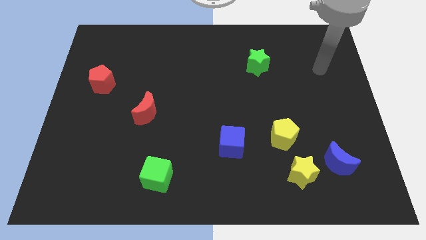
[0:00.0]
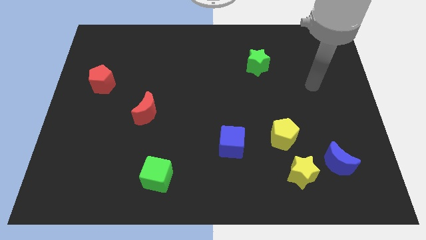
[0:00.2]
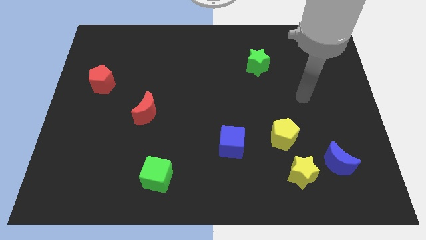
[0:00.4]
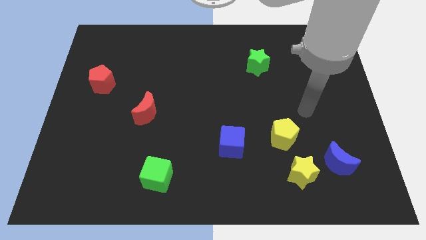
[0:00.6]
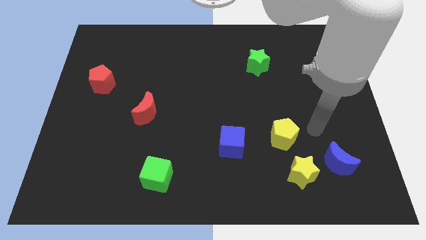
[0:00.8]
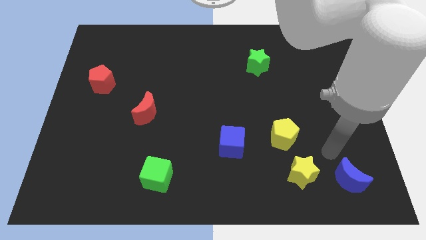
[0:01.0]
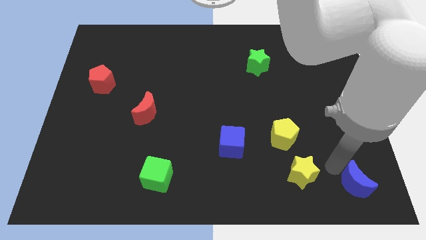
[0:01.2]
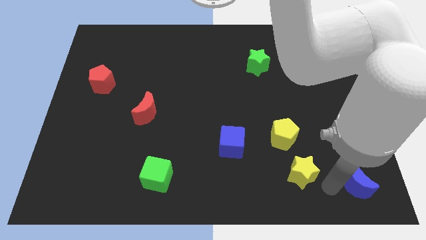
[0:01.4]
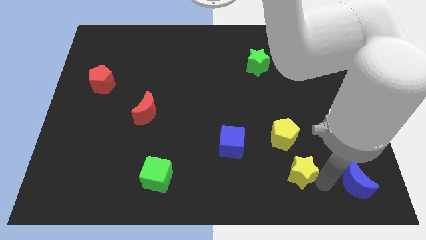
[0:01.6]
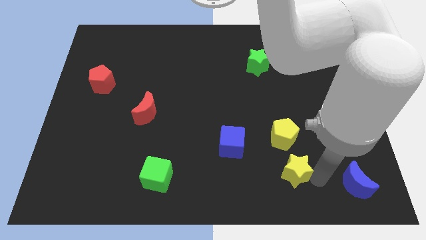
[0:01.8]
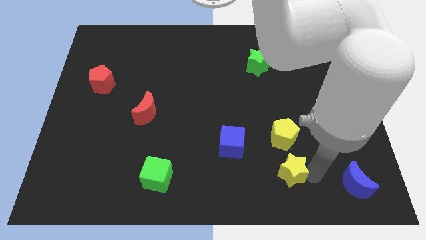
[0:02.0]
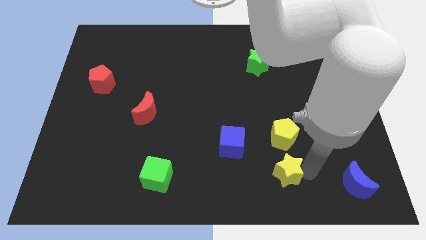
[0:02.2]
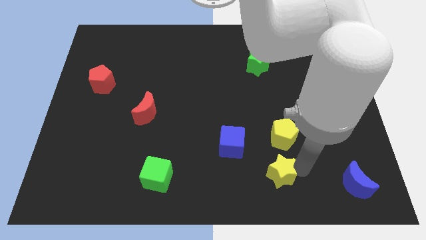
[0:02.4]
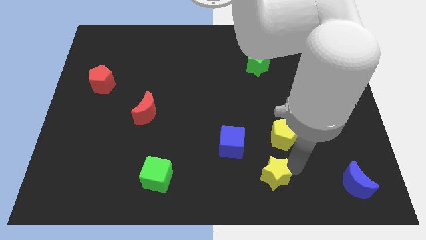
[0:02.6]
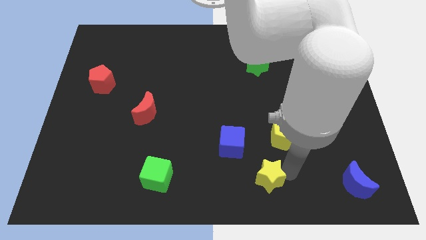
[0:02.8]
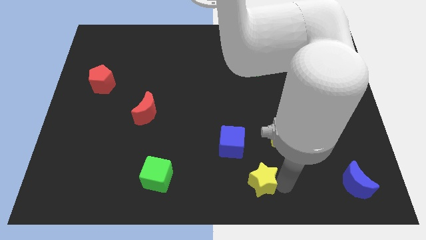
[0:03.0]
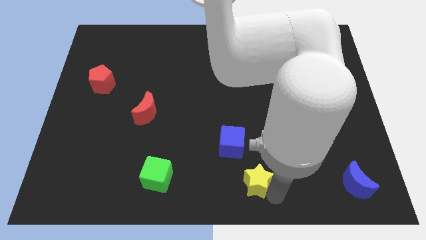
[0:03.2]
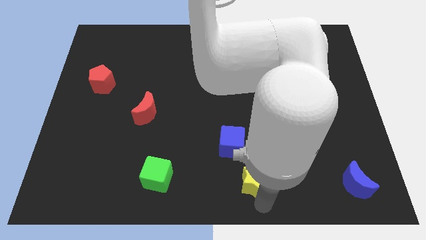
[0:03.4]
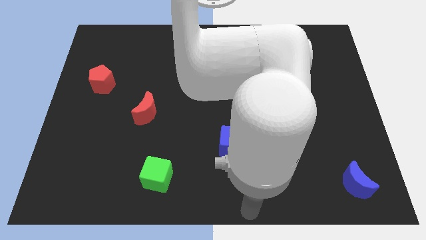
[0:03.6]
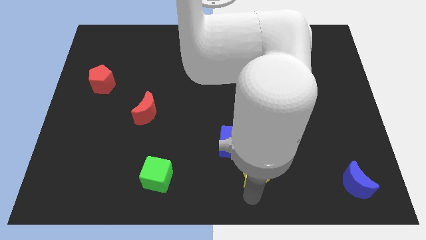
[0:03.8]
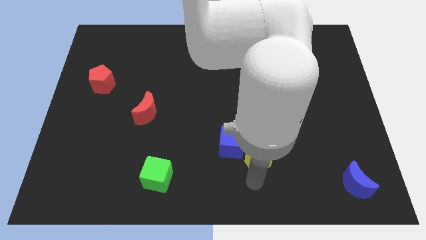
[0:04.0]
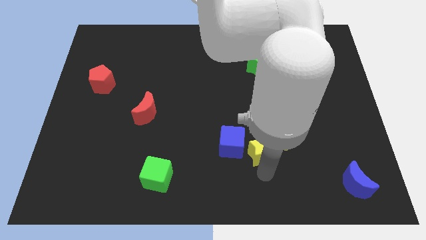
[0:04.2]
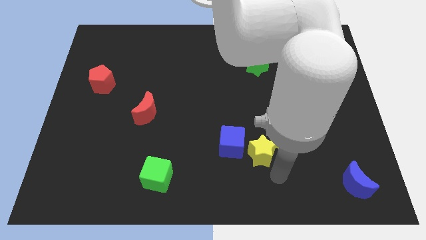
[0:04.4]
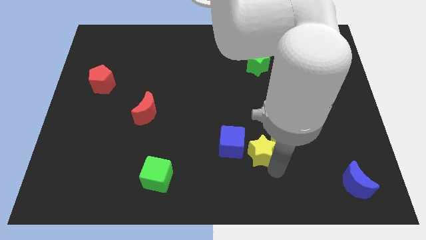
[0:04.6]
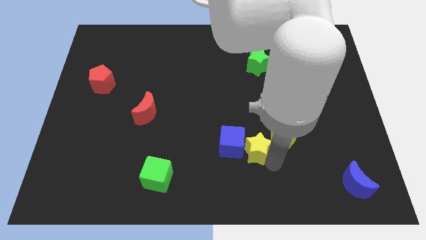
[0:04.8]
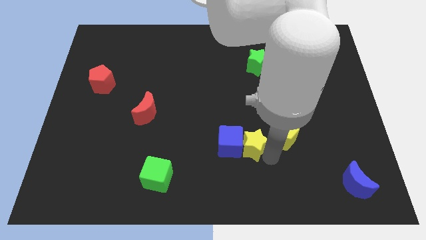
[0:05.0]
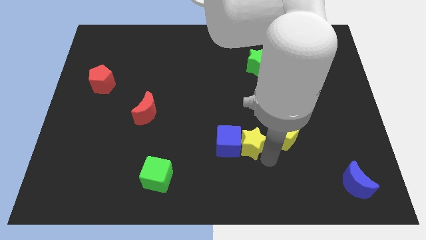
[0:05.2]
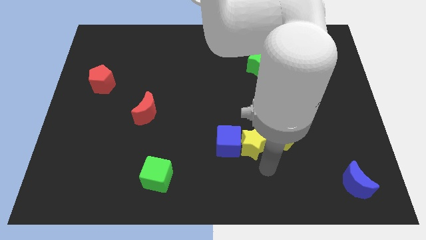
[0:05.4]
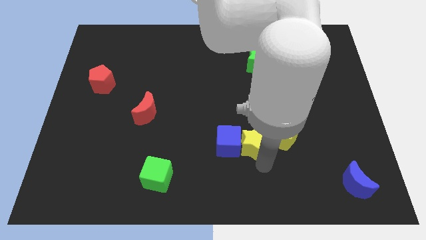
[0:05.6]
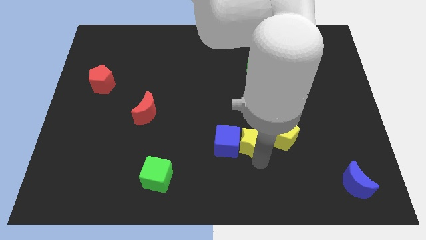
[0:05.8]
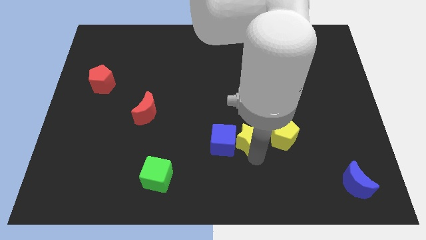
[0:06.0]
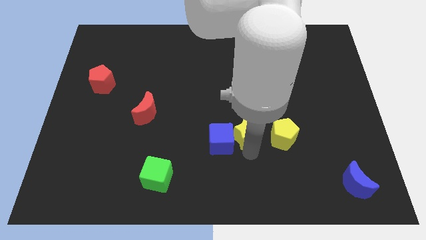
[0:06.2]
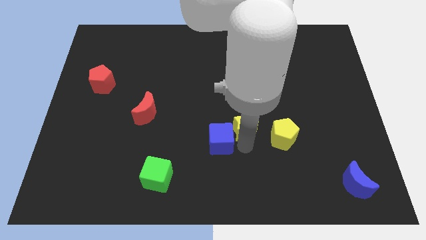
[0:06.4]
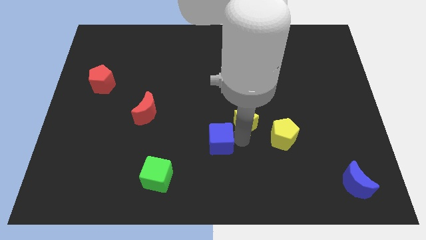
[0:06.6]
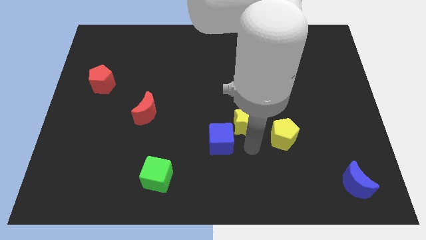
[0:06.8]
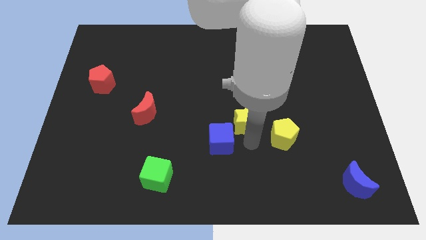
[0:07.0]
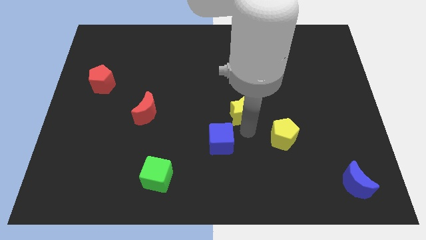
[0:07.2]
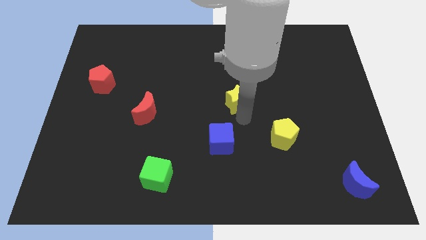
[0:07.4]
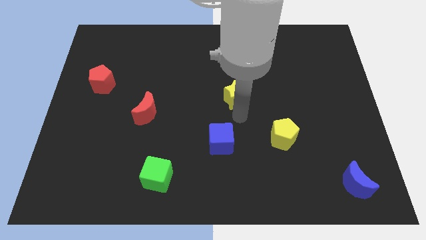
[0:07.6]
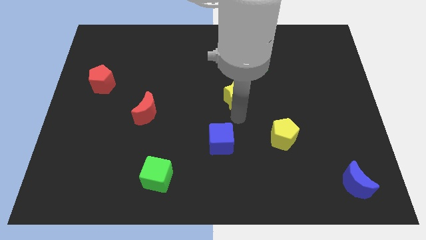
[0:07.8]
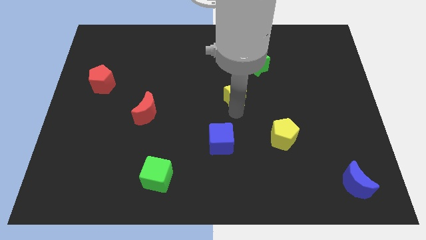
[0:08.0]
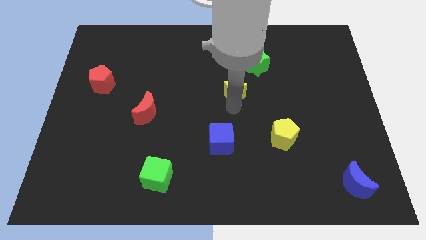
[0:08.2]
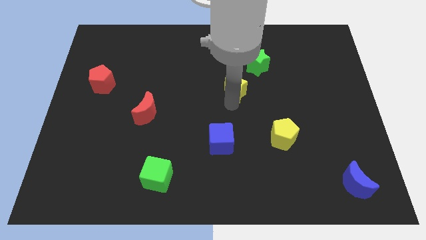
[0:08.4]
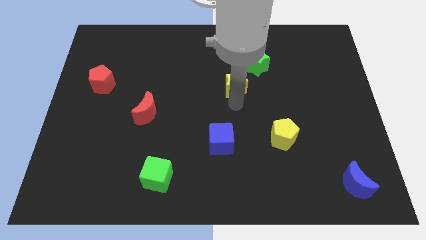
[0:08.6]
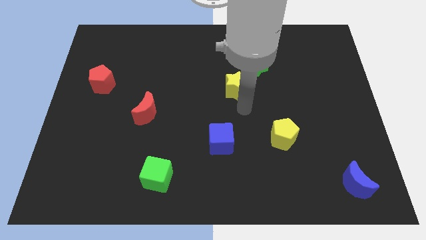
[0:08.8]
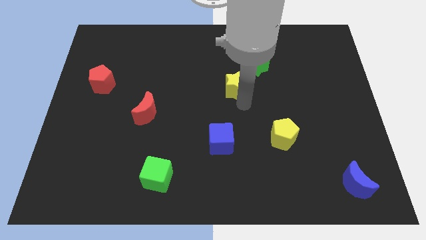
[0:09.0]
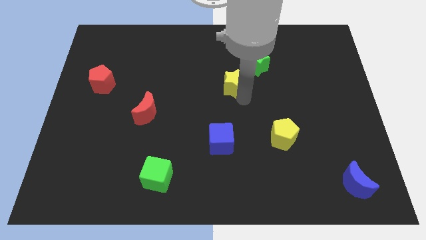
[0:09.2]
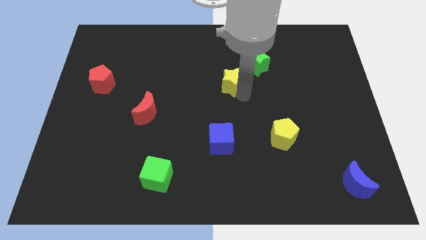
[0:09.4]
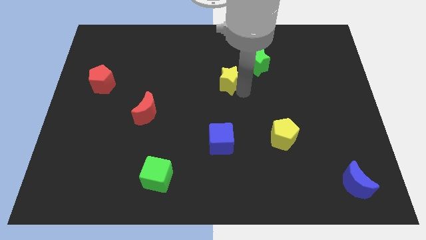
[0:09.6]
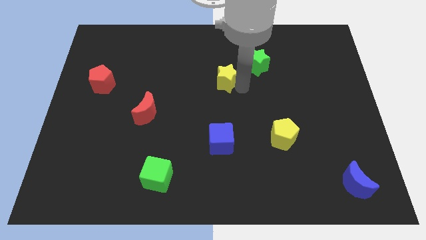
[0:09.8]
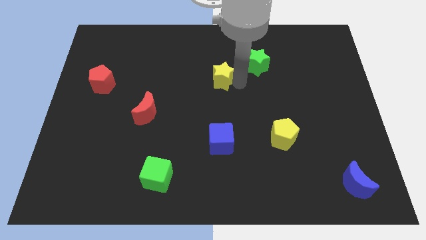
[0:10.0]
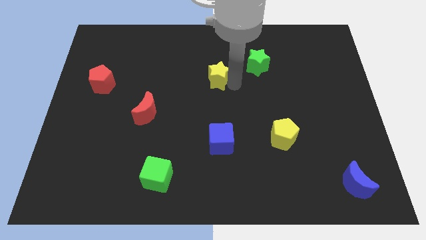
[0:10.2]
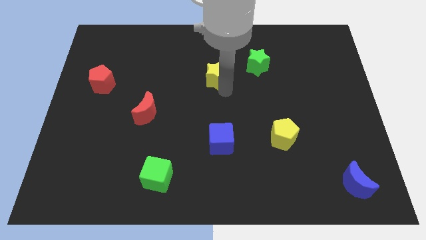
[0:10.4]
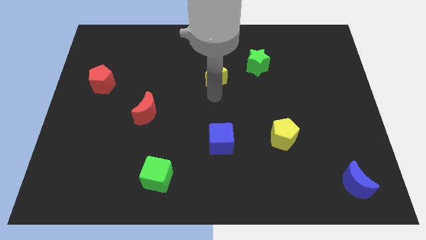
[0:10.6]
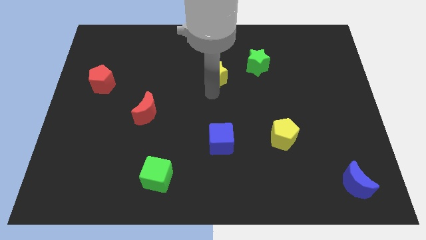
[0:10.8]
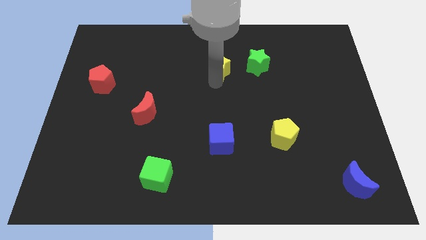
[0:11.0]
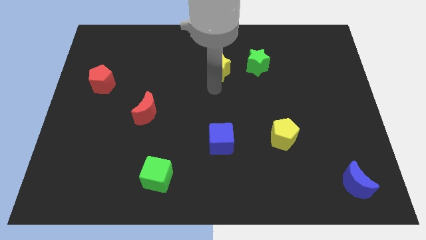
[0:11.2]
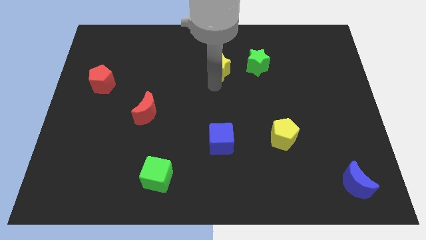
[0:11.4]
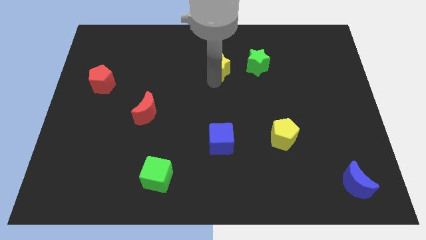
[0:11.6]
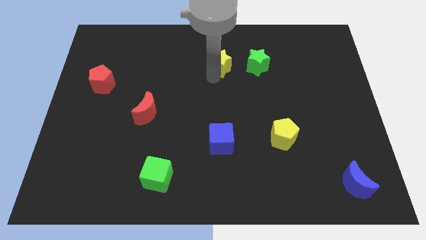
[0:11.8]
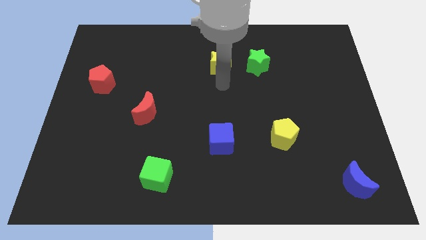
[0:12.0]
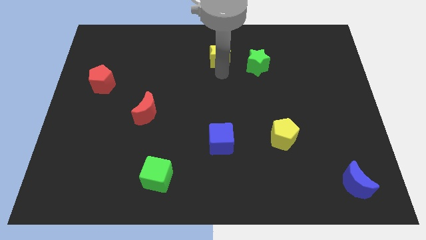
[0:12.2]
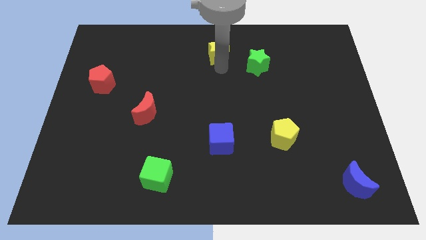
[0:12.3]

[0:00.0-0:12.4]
move the yellow star to the top
